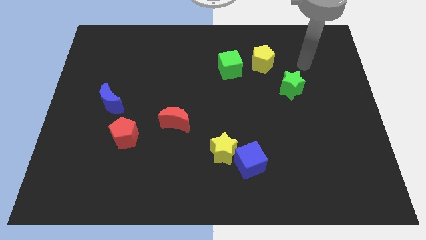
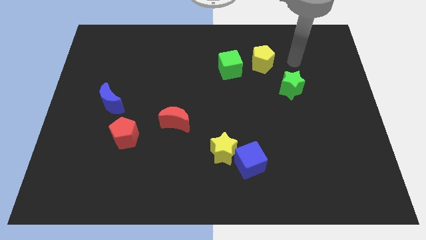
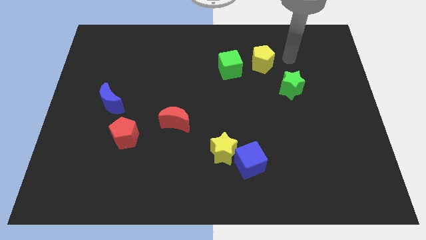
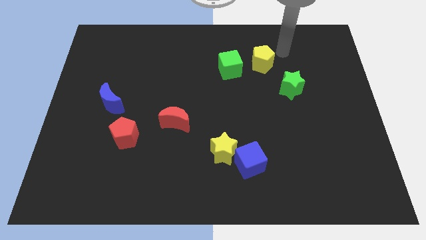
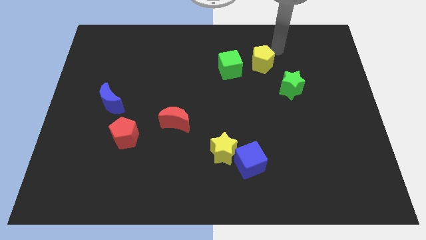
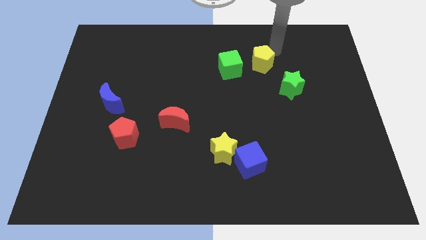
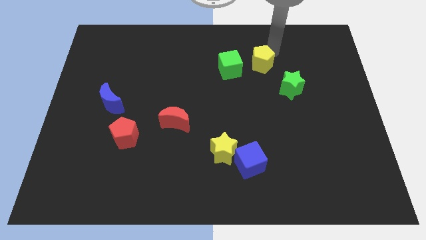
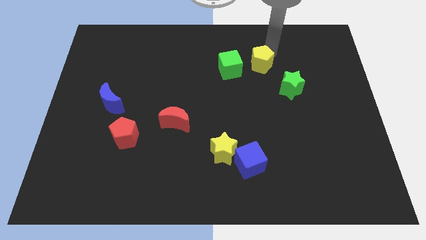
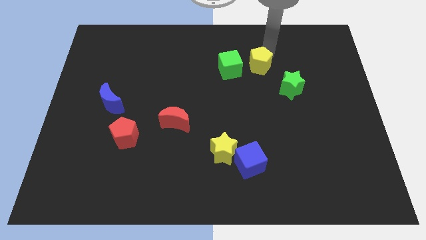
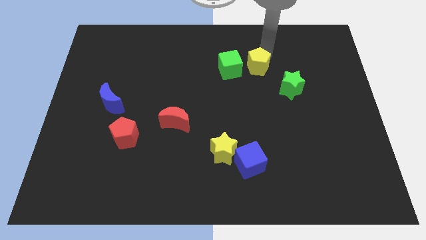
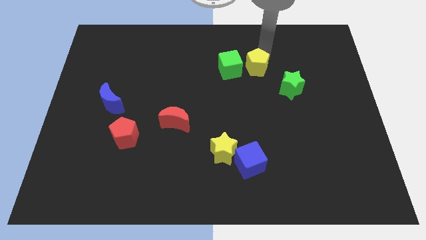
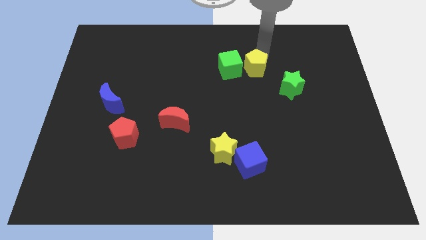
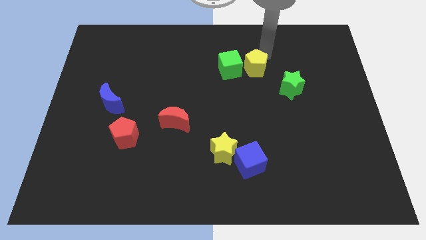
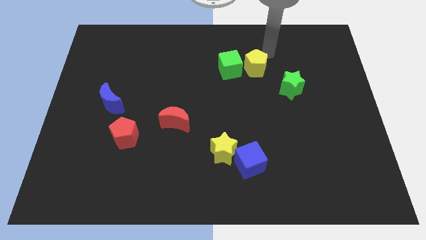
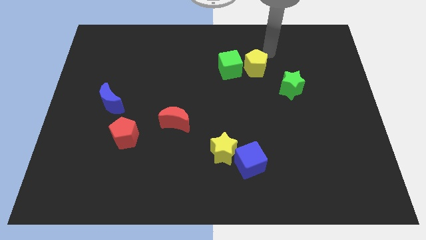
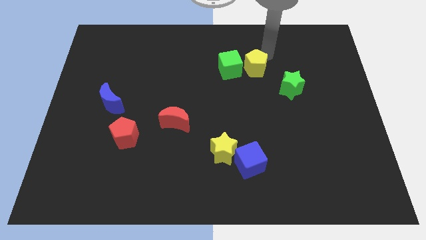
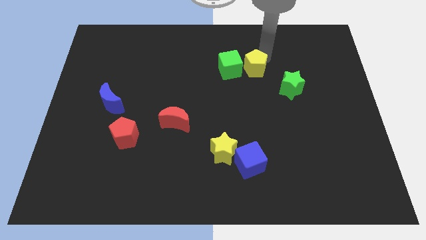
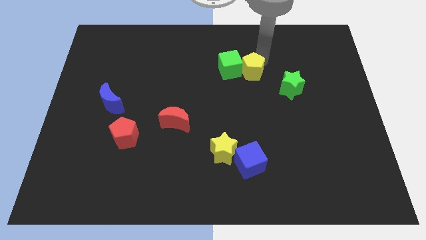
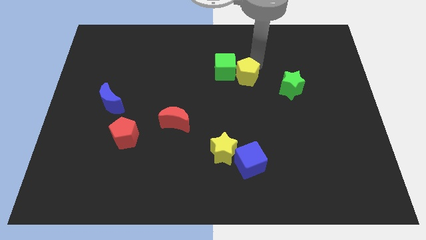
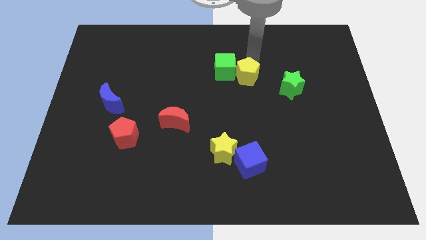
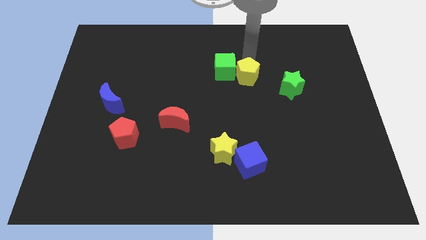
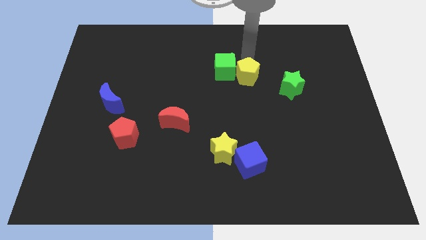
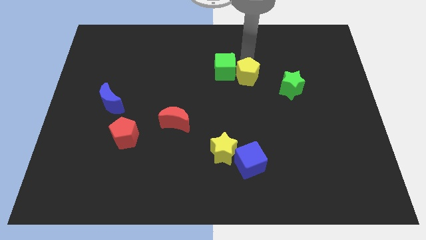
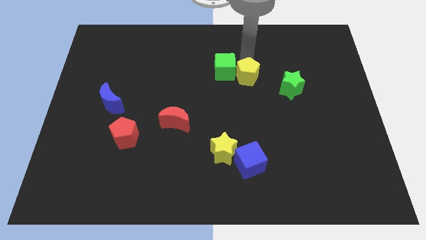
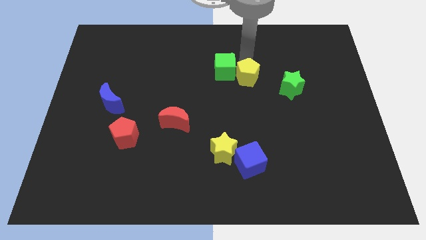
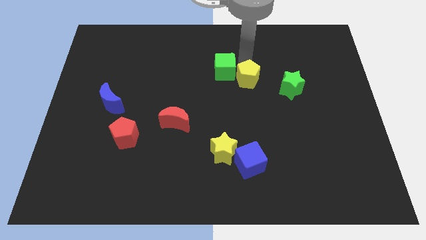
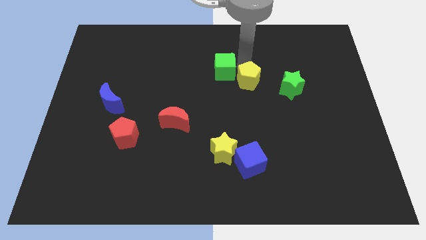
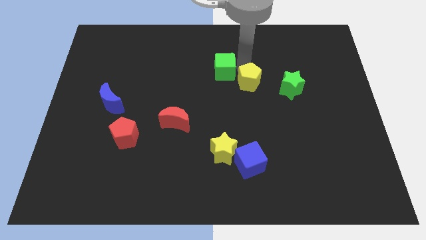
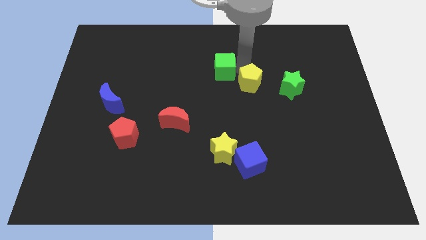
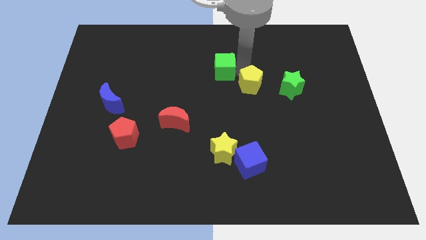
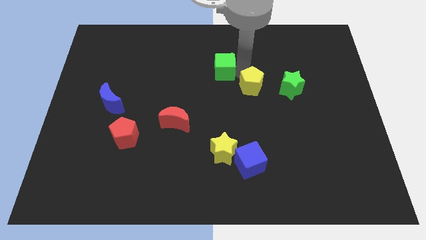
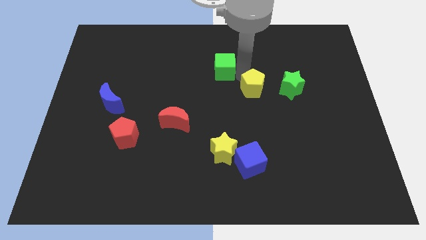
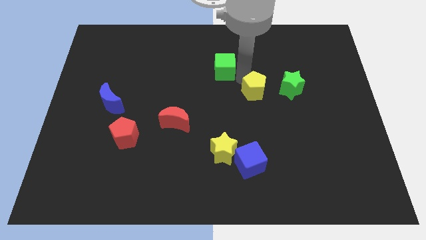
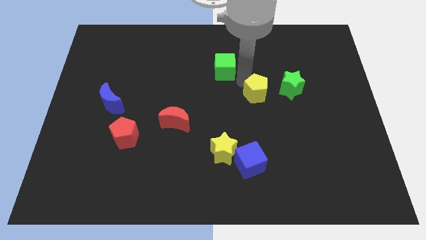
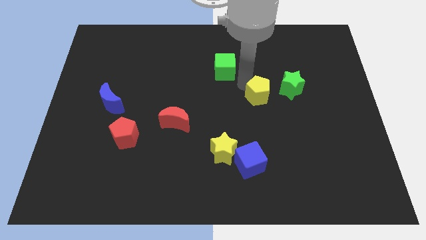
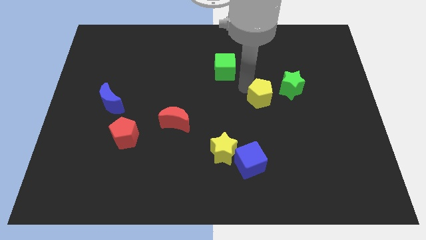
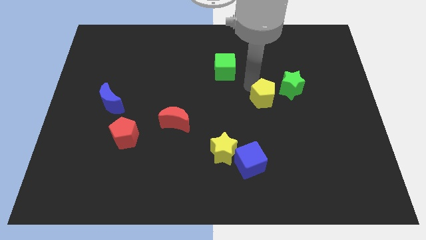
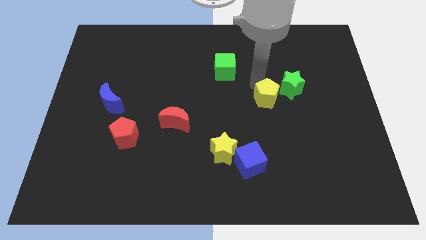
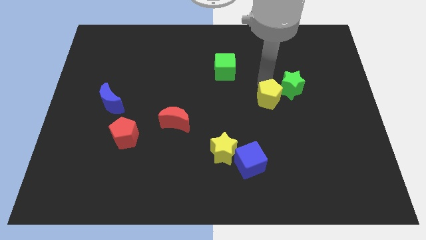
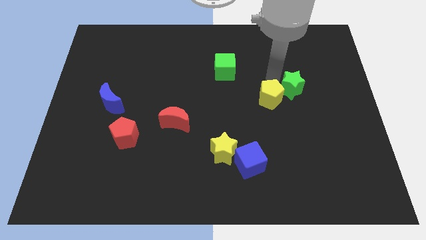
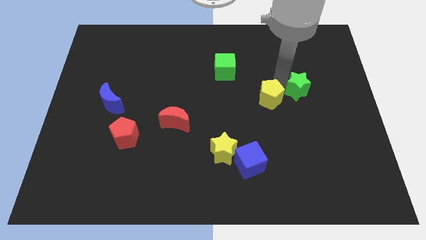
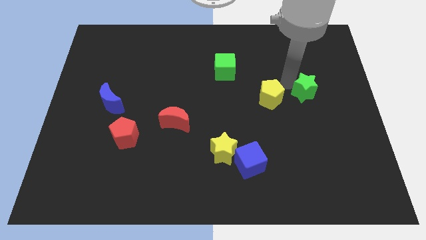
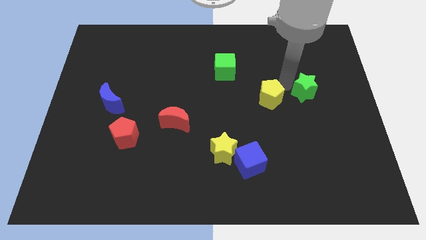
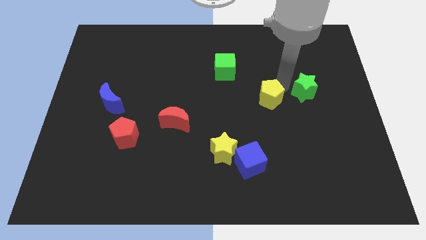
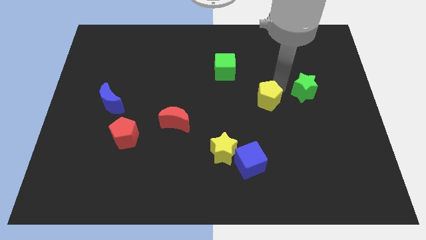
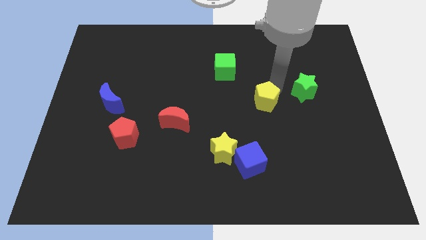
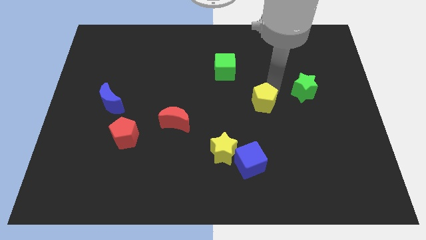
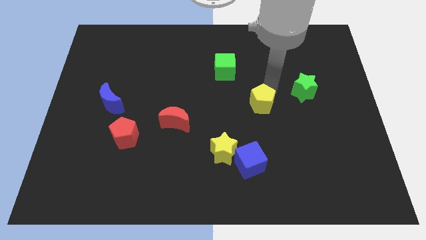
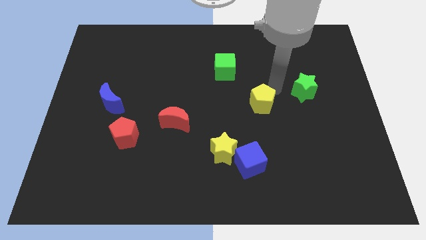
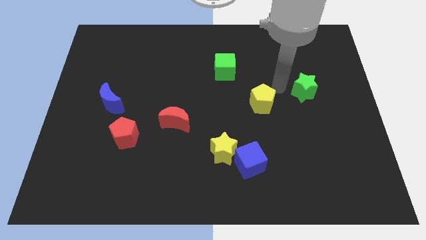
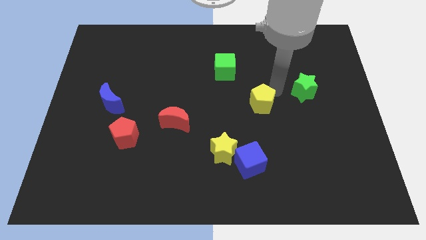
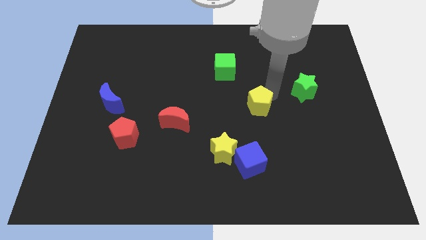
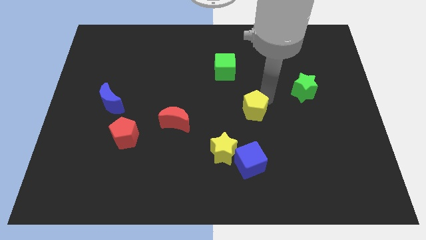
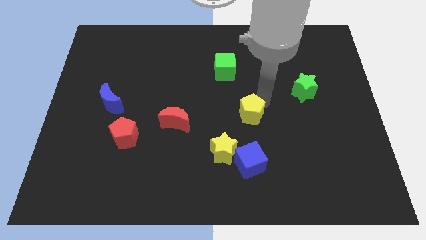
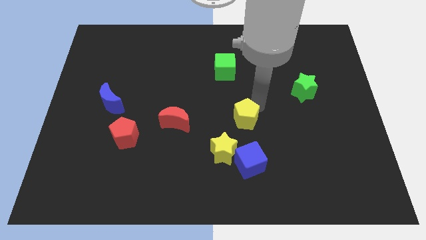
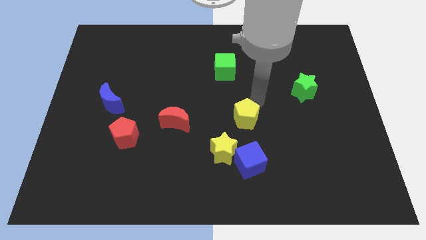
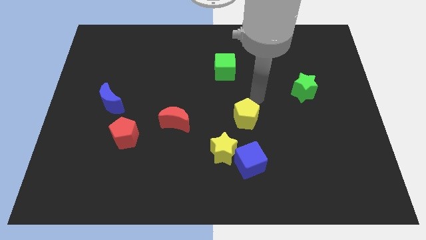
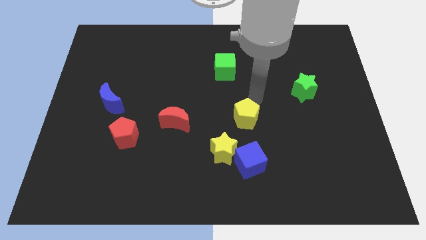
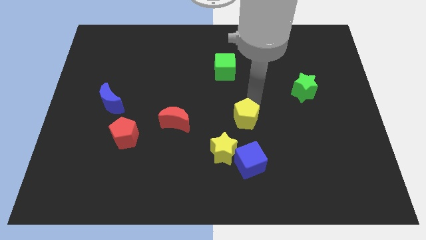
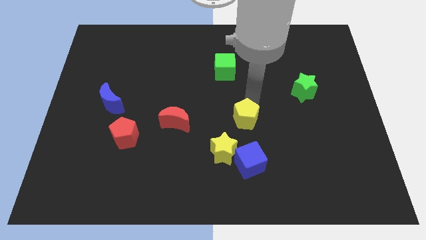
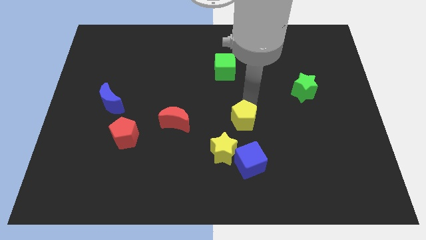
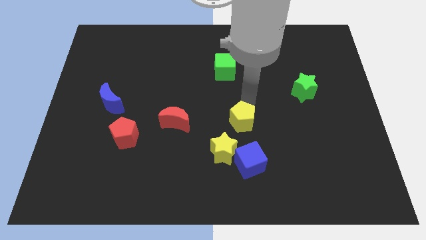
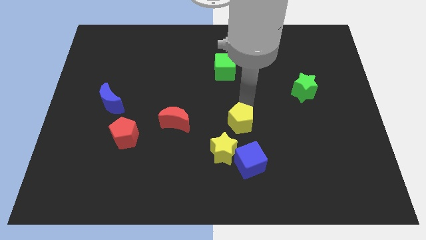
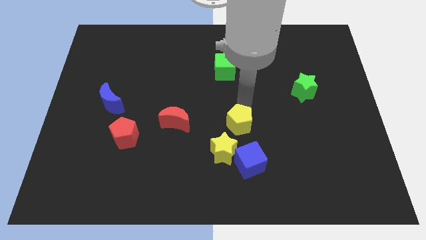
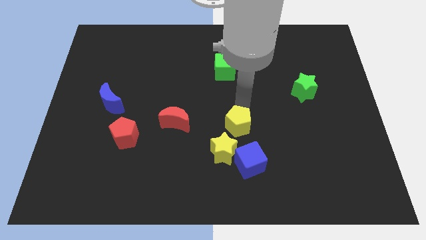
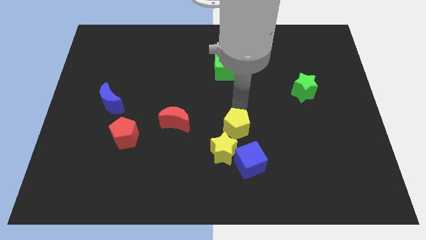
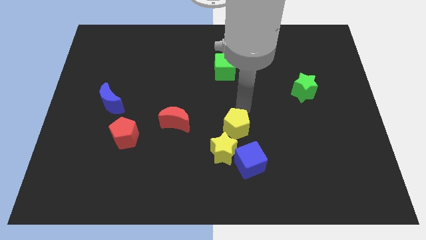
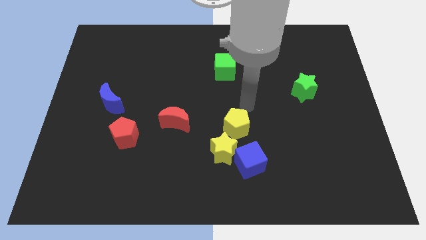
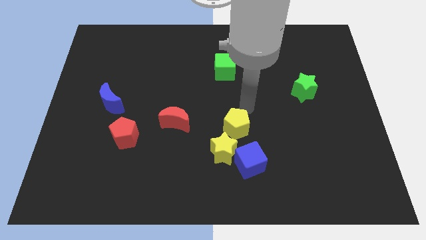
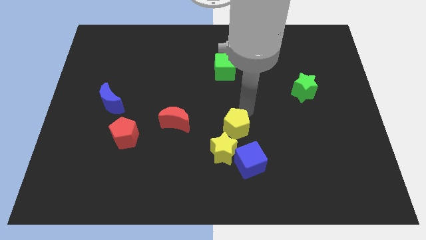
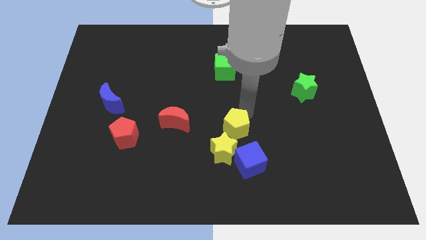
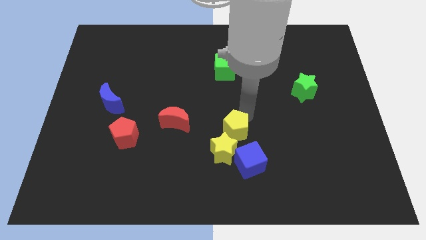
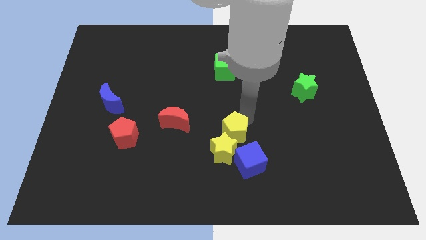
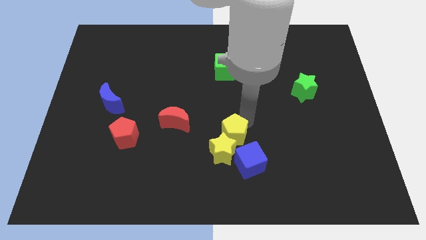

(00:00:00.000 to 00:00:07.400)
push the yellow pentagon to the yellow star

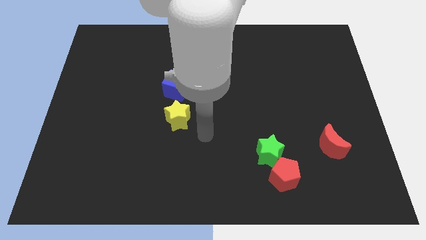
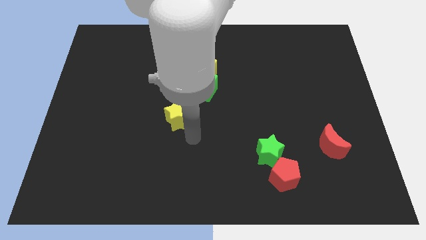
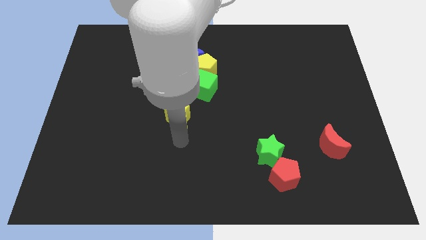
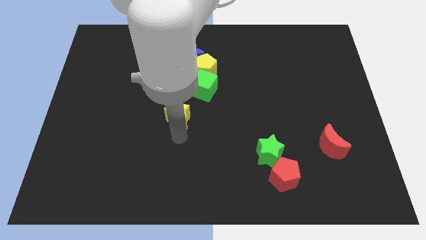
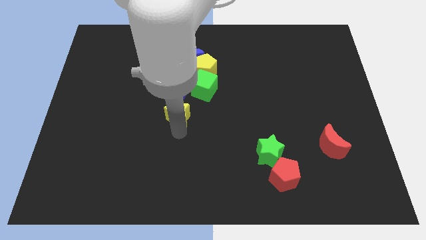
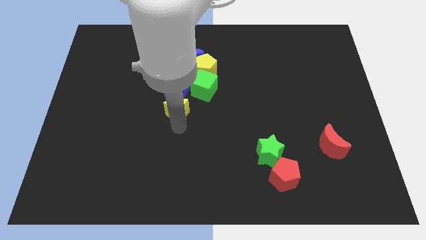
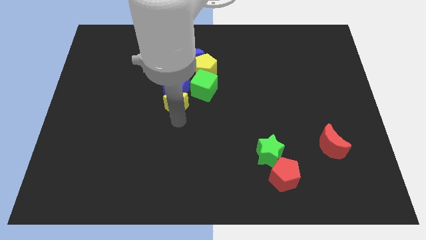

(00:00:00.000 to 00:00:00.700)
push the yellow star to the blue cube
